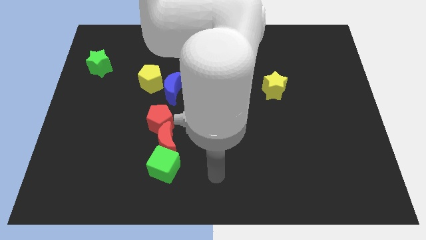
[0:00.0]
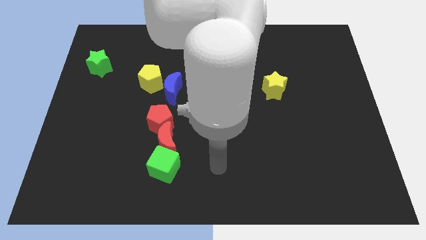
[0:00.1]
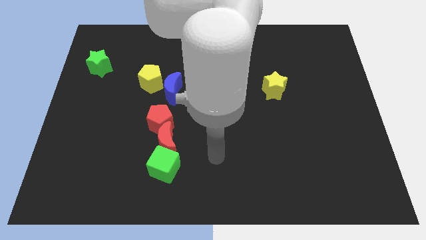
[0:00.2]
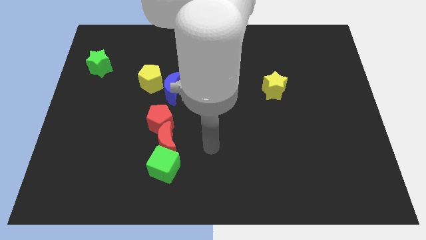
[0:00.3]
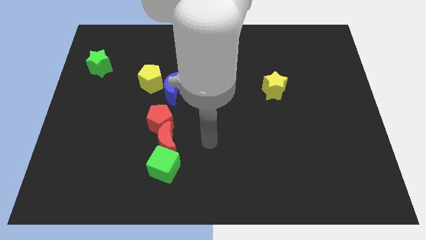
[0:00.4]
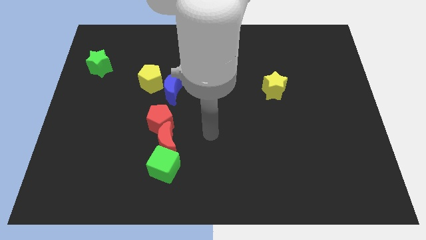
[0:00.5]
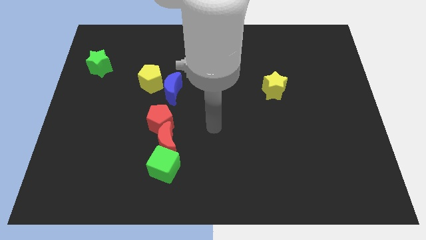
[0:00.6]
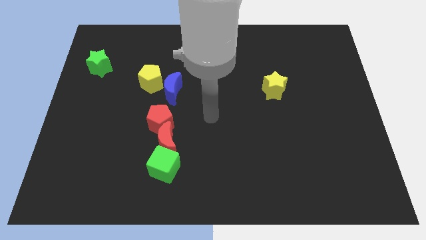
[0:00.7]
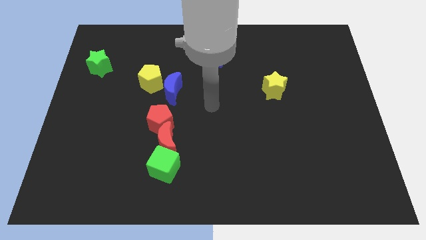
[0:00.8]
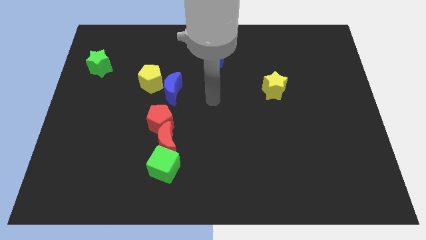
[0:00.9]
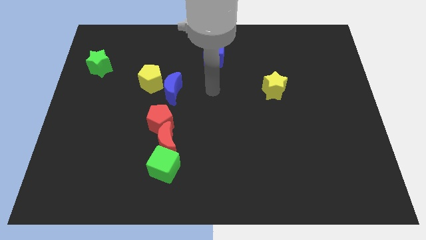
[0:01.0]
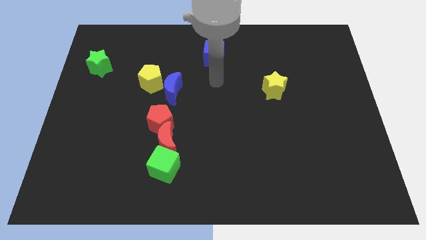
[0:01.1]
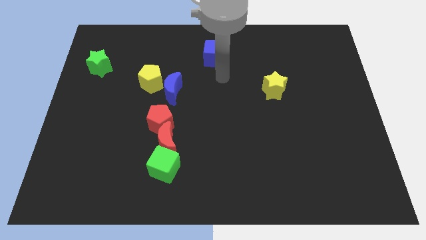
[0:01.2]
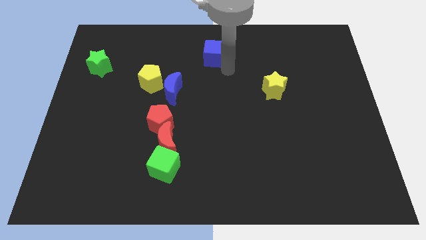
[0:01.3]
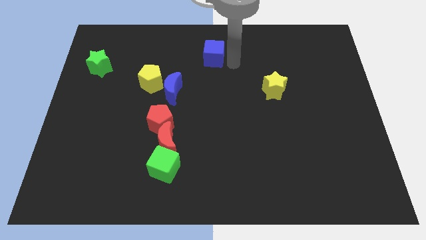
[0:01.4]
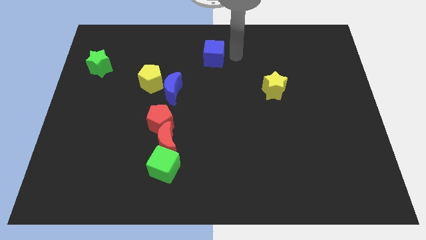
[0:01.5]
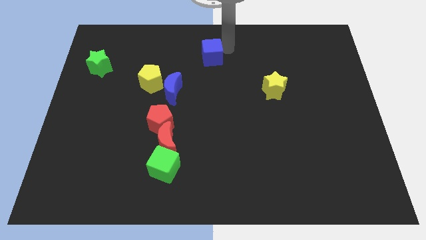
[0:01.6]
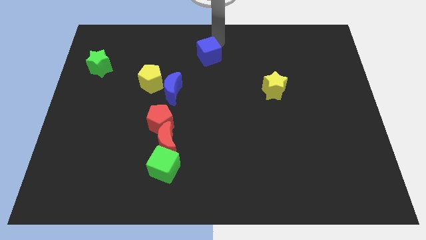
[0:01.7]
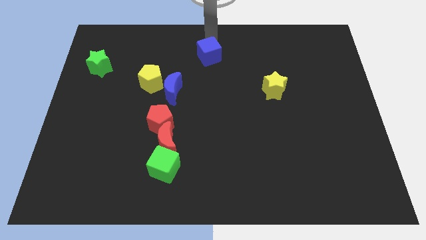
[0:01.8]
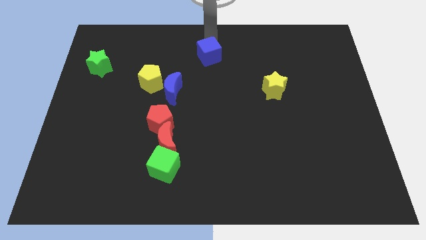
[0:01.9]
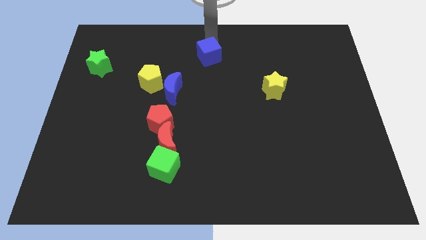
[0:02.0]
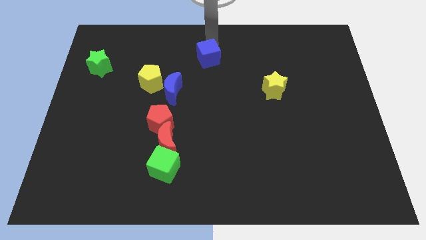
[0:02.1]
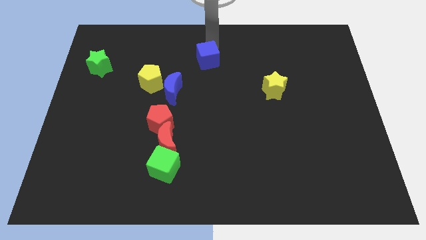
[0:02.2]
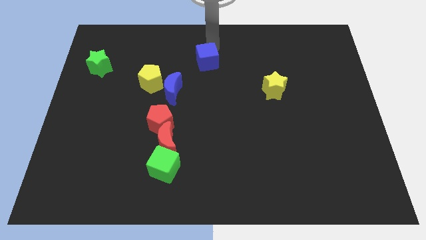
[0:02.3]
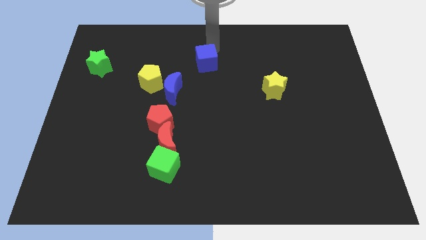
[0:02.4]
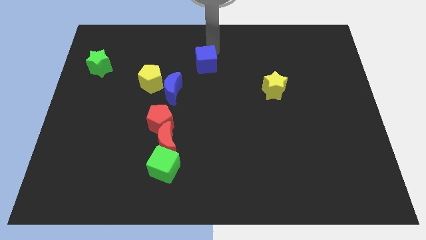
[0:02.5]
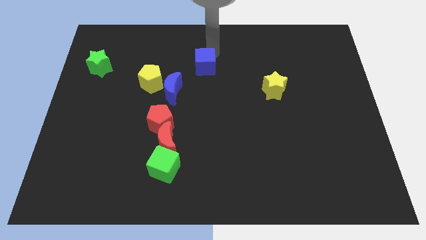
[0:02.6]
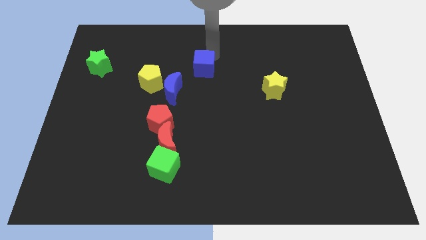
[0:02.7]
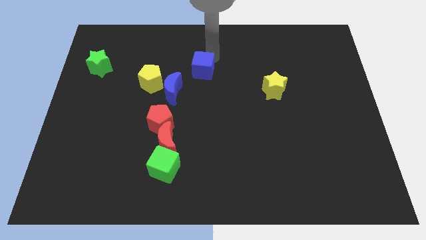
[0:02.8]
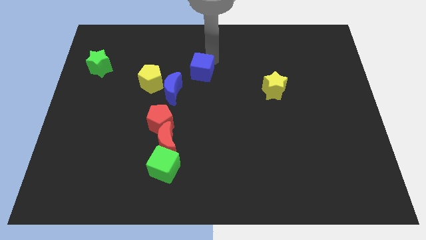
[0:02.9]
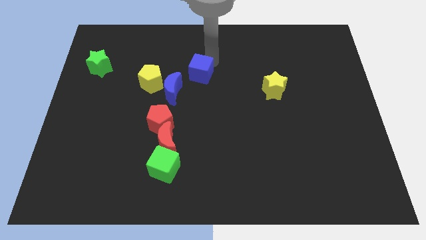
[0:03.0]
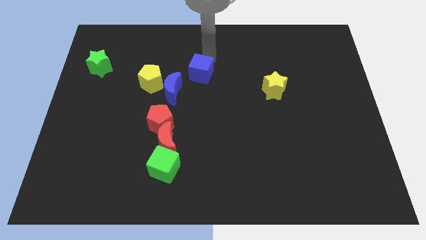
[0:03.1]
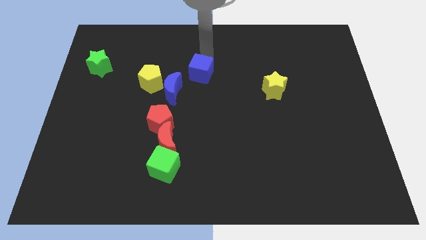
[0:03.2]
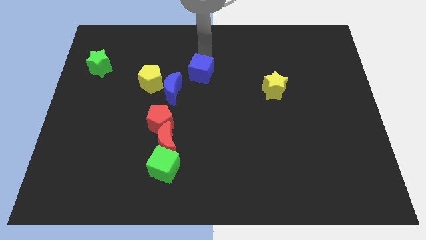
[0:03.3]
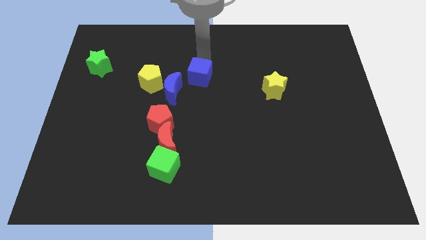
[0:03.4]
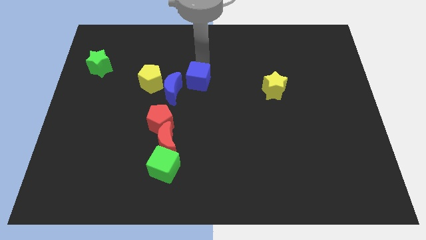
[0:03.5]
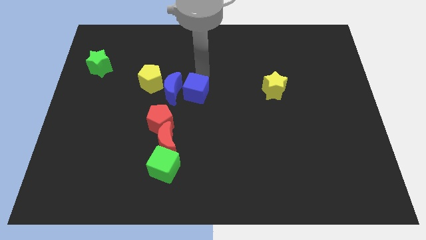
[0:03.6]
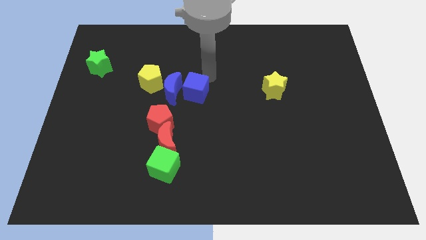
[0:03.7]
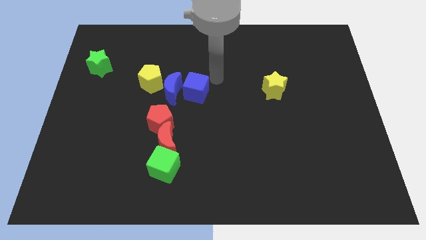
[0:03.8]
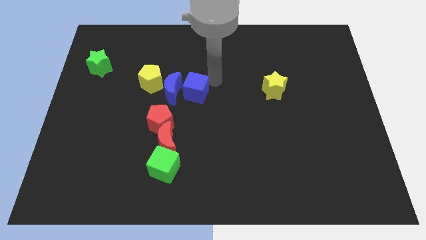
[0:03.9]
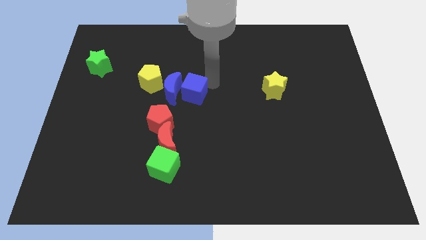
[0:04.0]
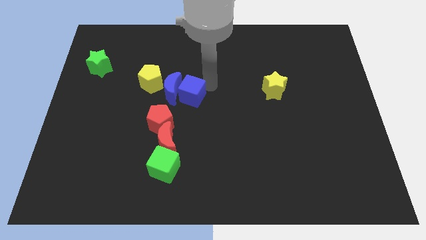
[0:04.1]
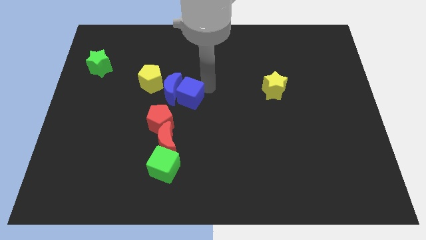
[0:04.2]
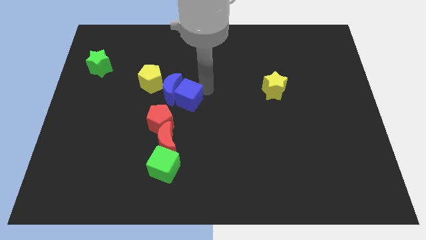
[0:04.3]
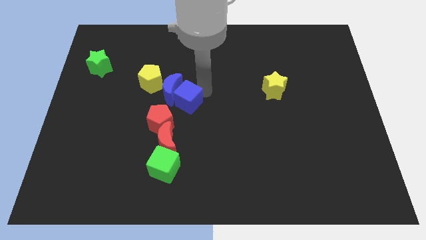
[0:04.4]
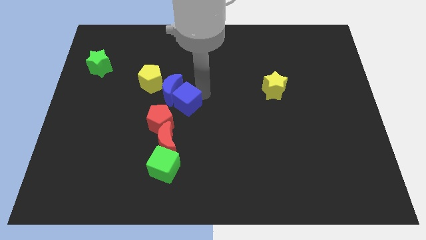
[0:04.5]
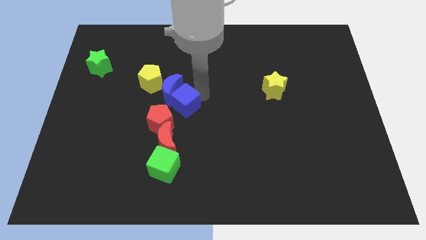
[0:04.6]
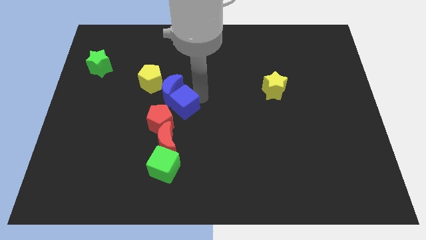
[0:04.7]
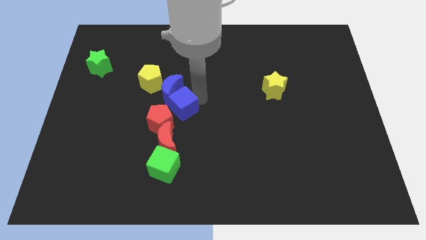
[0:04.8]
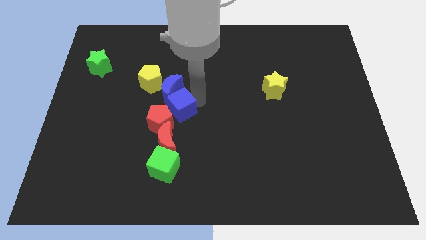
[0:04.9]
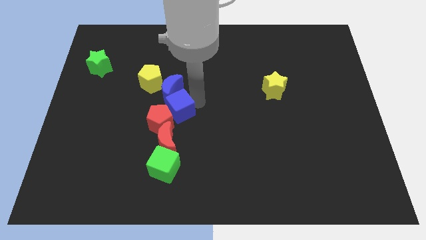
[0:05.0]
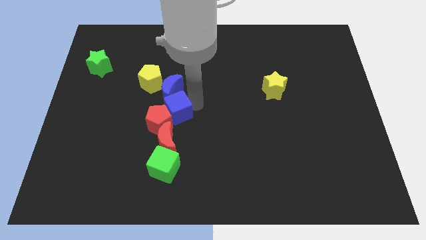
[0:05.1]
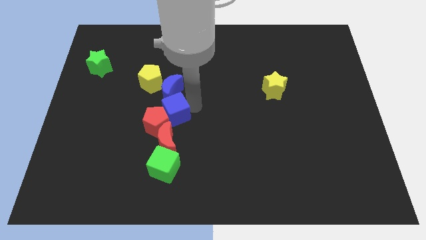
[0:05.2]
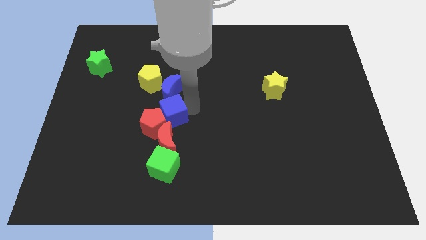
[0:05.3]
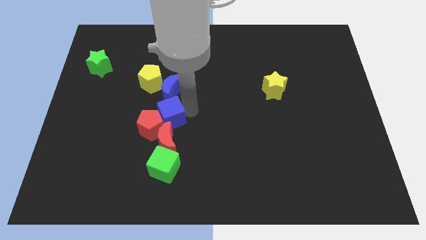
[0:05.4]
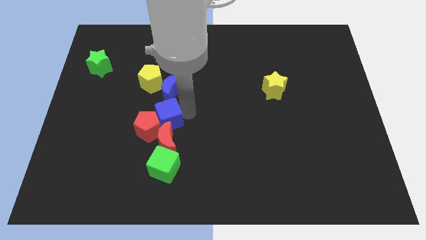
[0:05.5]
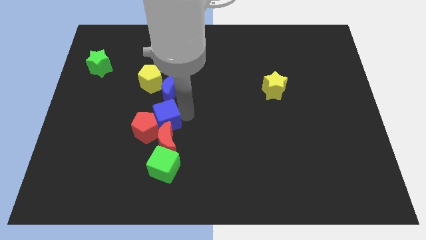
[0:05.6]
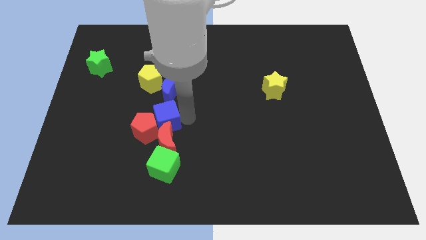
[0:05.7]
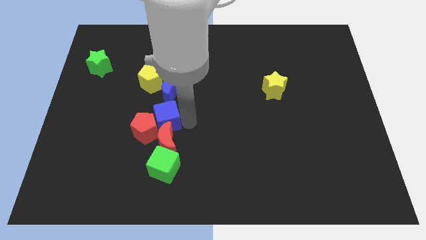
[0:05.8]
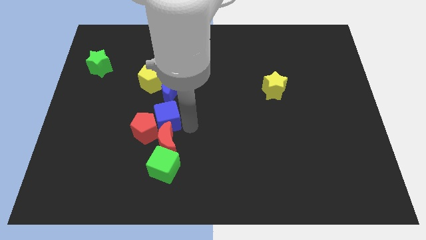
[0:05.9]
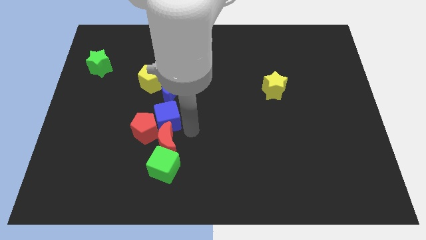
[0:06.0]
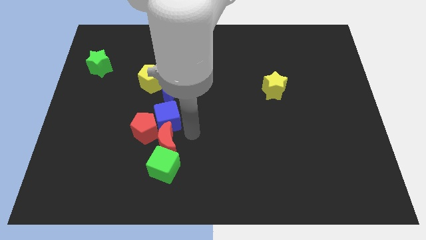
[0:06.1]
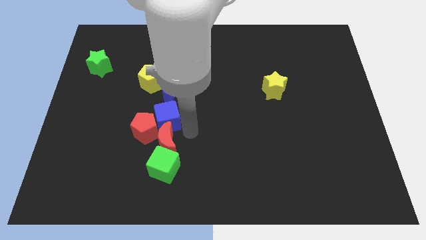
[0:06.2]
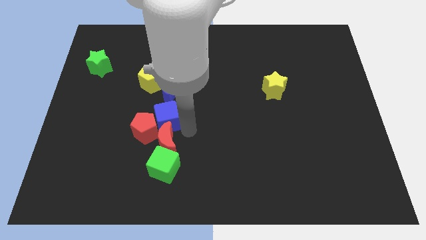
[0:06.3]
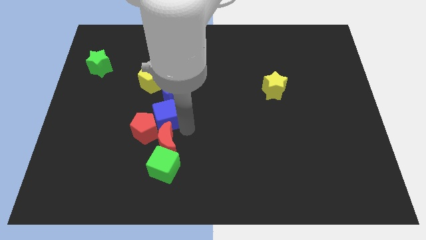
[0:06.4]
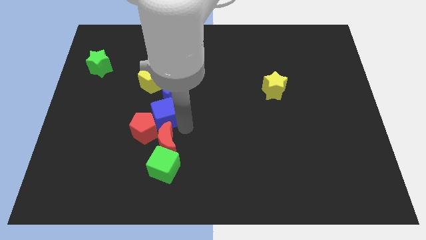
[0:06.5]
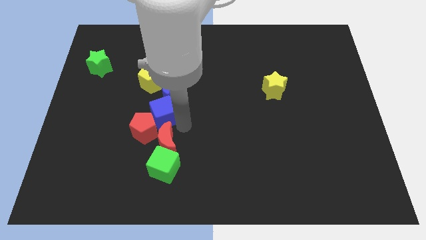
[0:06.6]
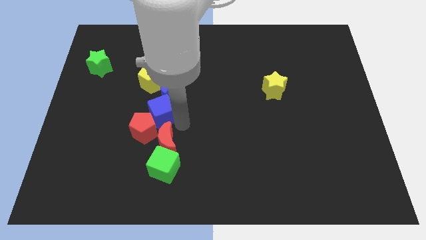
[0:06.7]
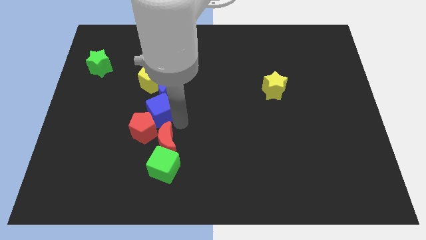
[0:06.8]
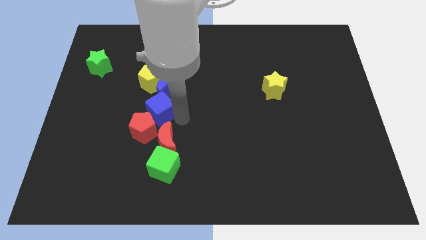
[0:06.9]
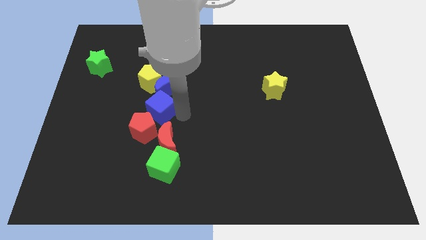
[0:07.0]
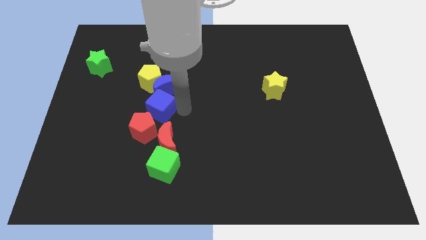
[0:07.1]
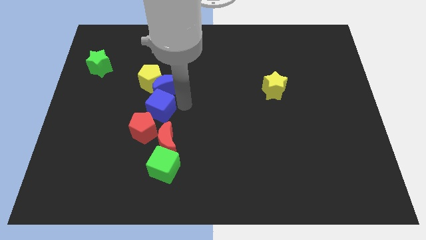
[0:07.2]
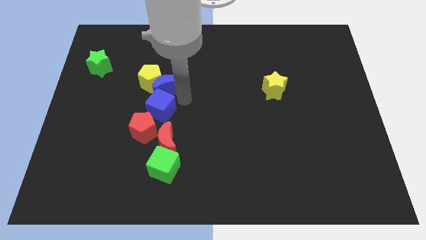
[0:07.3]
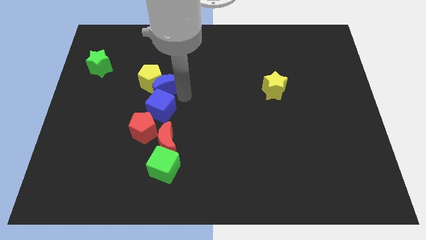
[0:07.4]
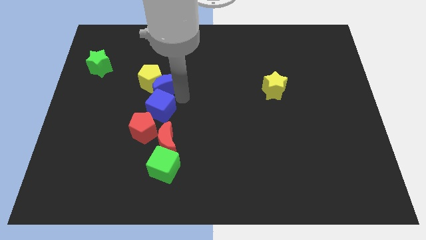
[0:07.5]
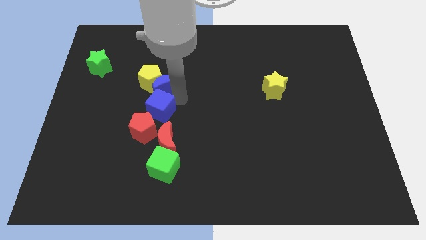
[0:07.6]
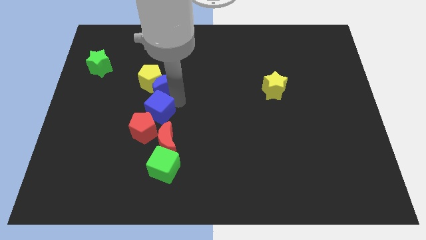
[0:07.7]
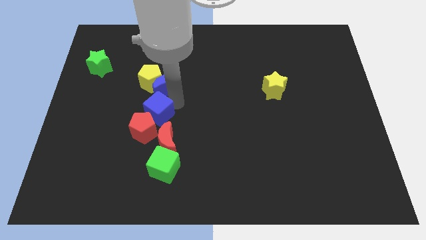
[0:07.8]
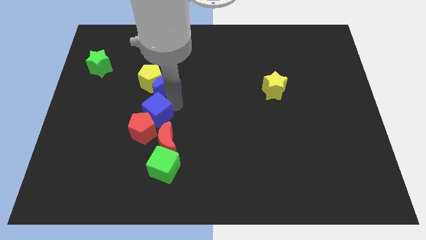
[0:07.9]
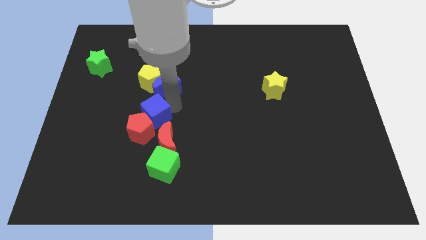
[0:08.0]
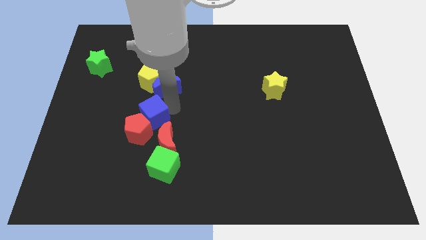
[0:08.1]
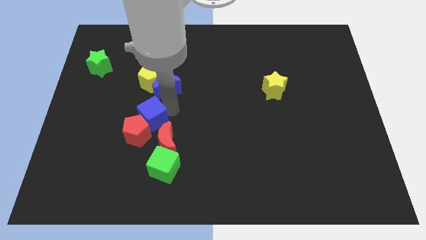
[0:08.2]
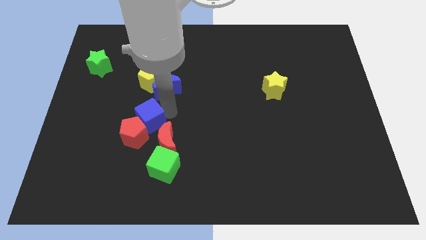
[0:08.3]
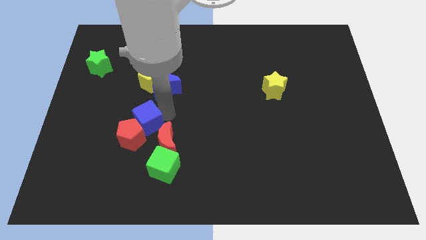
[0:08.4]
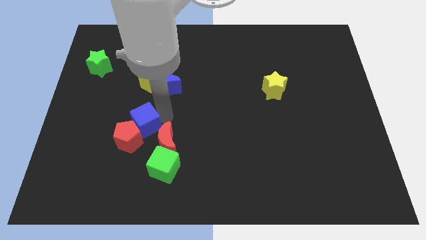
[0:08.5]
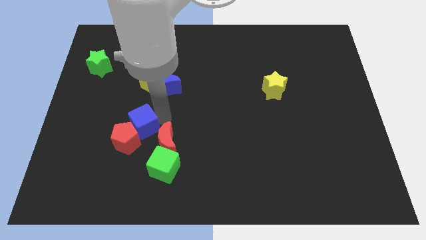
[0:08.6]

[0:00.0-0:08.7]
slide the blue cube to the left of the red moon
